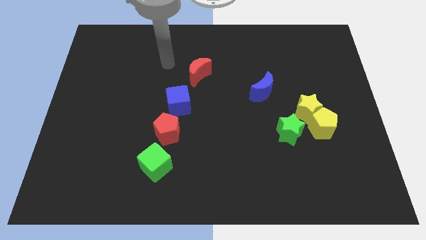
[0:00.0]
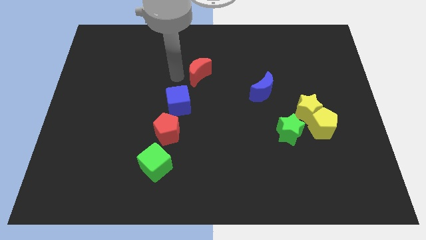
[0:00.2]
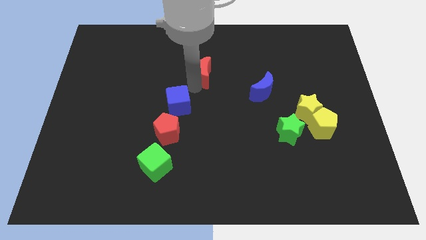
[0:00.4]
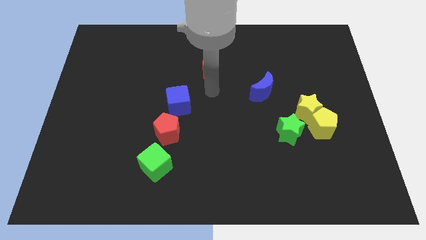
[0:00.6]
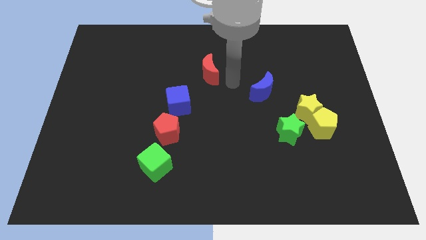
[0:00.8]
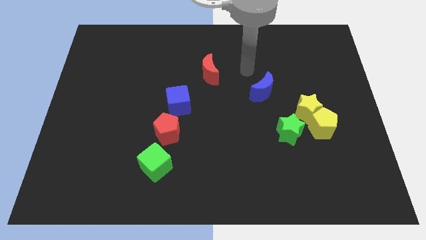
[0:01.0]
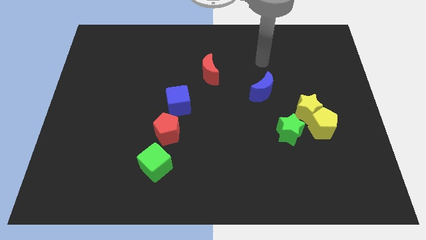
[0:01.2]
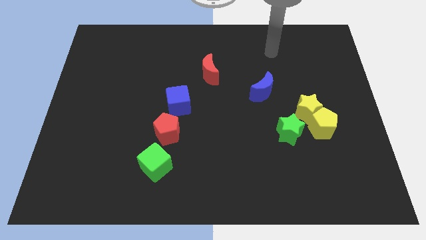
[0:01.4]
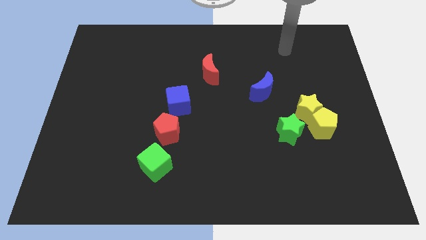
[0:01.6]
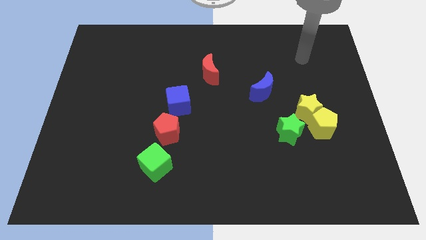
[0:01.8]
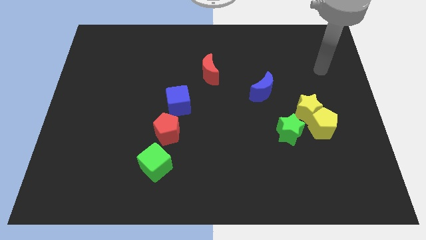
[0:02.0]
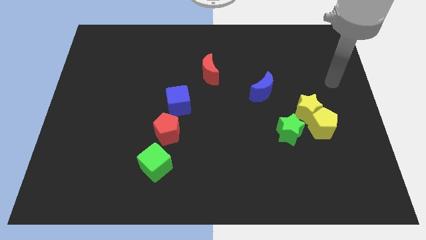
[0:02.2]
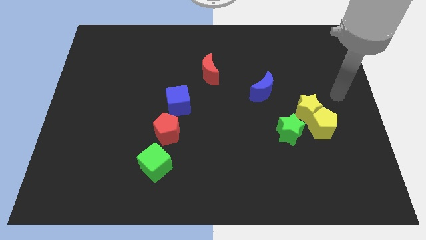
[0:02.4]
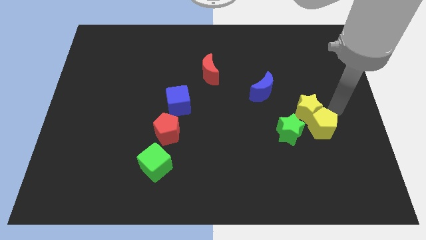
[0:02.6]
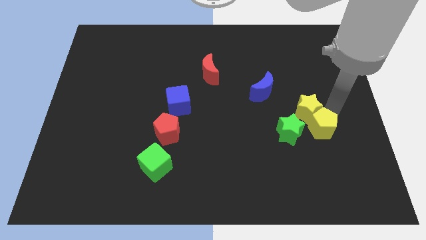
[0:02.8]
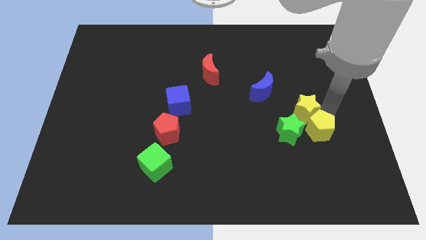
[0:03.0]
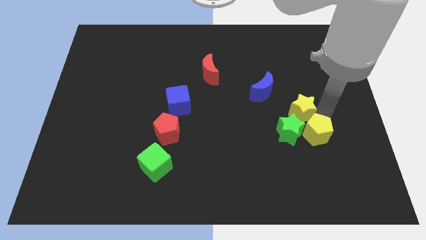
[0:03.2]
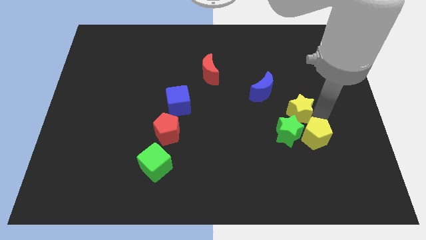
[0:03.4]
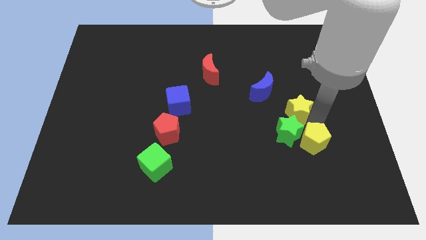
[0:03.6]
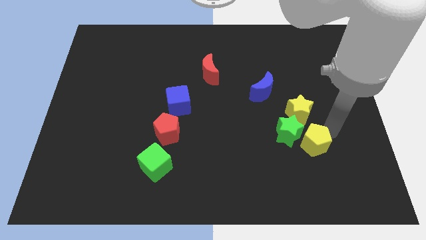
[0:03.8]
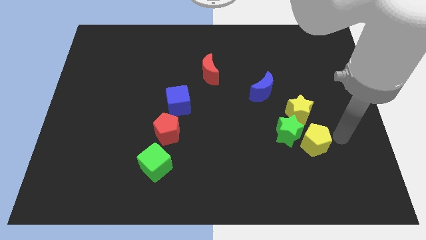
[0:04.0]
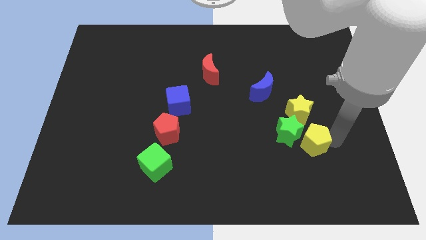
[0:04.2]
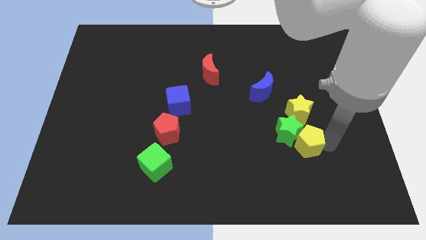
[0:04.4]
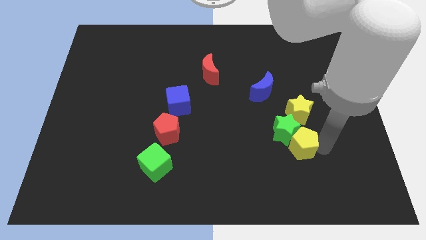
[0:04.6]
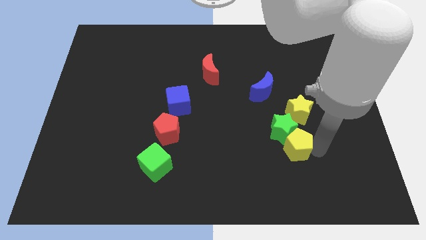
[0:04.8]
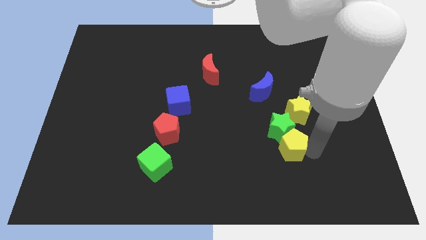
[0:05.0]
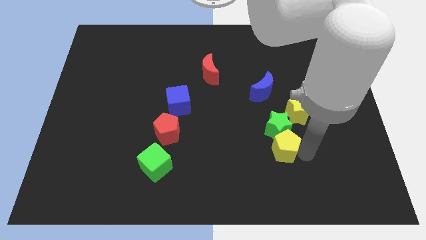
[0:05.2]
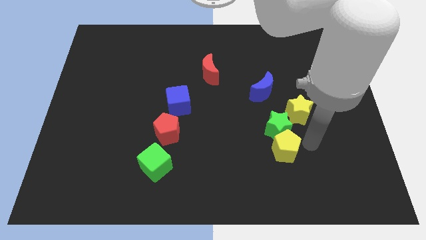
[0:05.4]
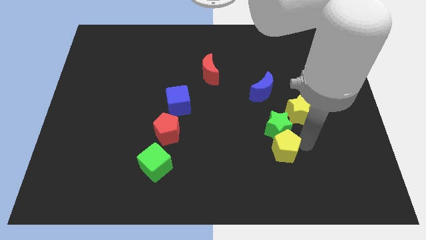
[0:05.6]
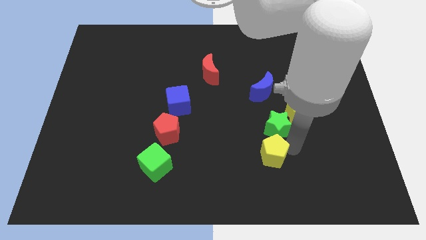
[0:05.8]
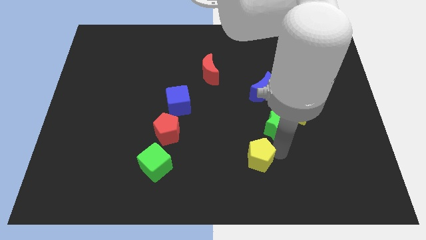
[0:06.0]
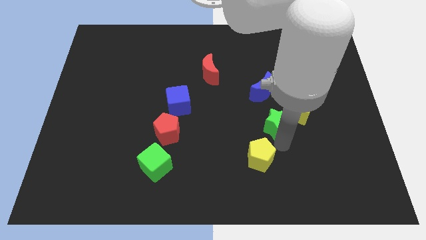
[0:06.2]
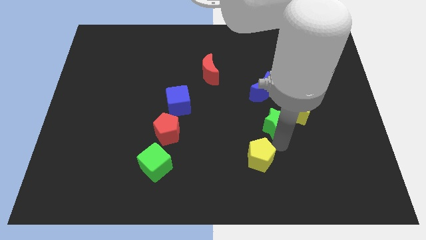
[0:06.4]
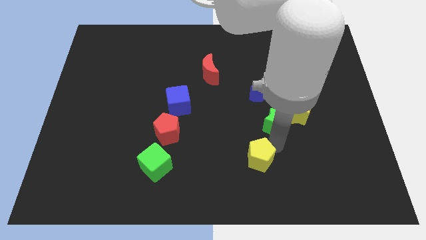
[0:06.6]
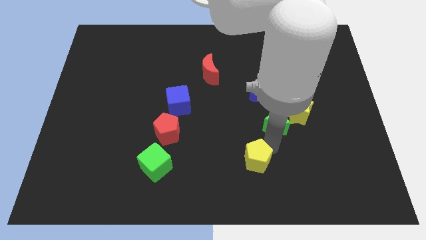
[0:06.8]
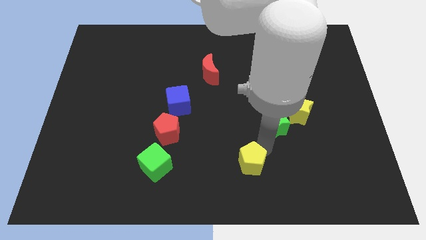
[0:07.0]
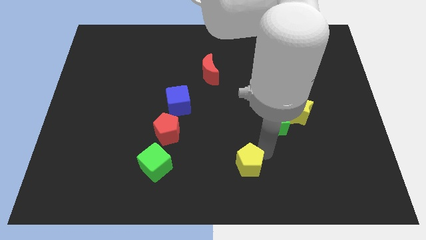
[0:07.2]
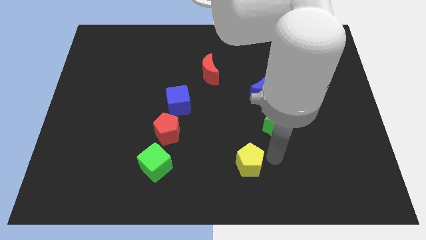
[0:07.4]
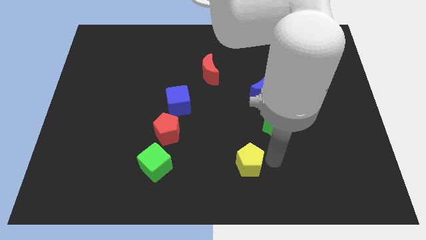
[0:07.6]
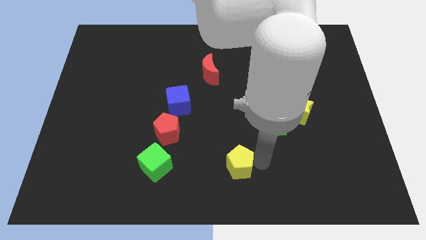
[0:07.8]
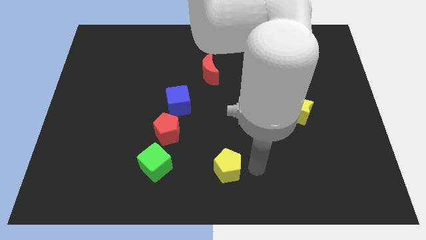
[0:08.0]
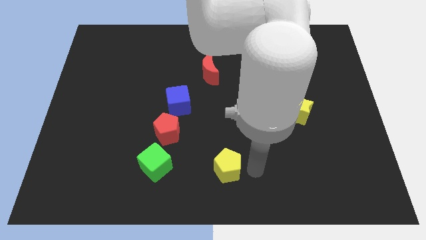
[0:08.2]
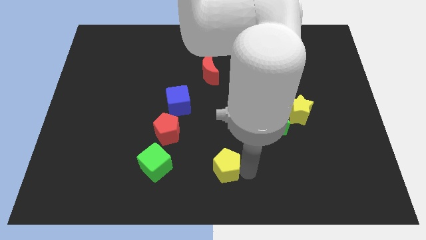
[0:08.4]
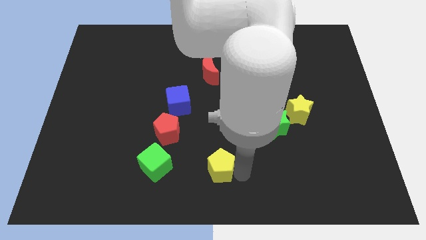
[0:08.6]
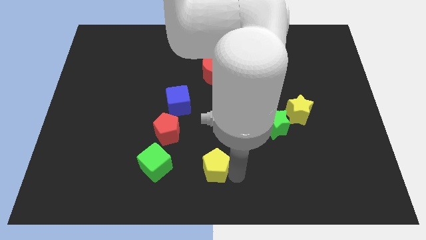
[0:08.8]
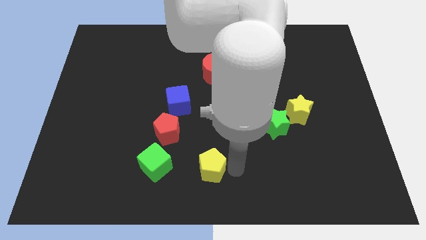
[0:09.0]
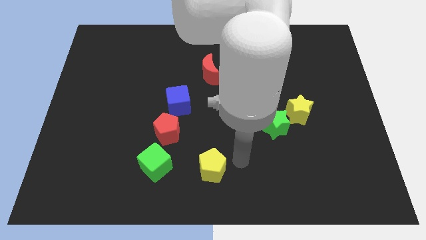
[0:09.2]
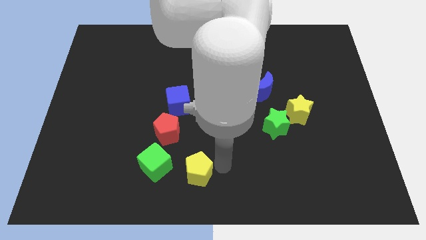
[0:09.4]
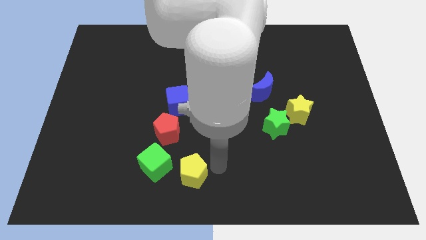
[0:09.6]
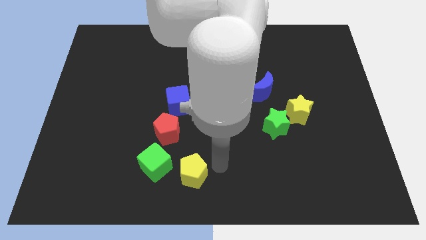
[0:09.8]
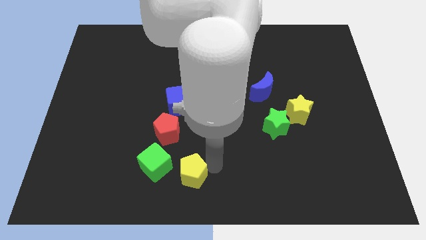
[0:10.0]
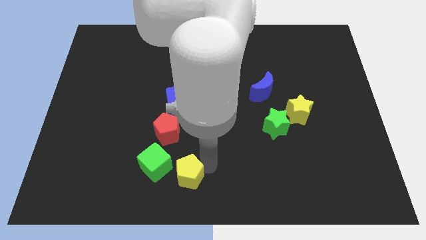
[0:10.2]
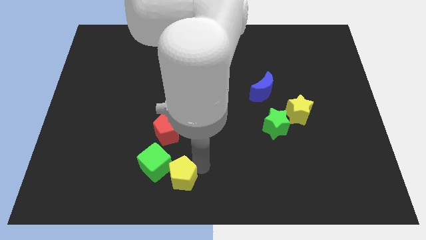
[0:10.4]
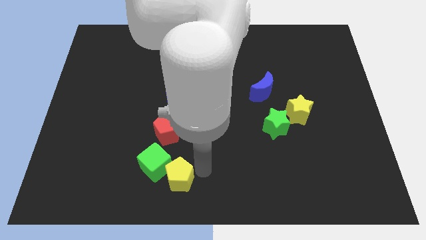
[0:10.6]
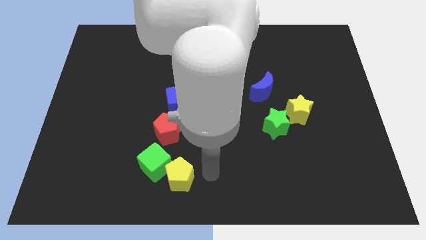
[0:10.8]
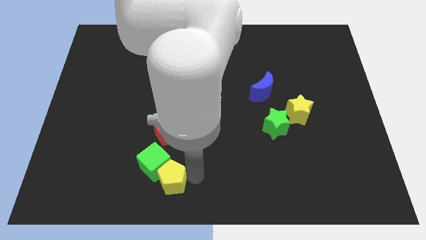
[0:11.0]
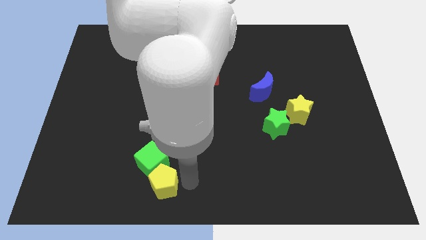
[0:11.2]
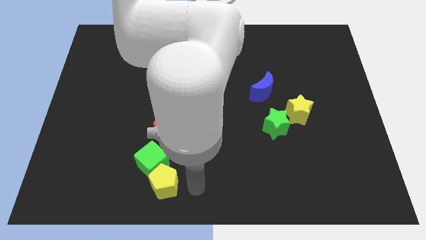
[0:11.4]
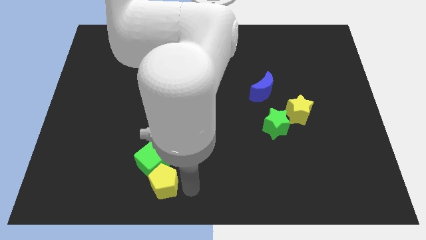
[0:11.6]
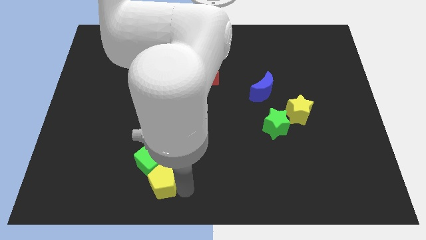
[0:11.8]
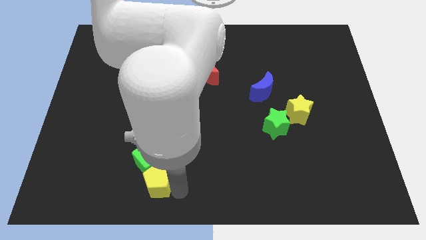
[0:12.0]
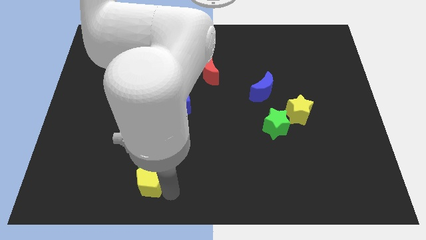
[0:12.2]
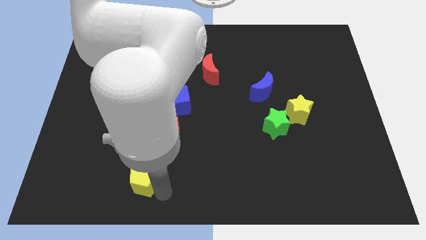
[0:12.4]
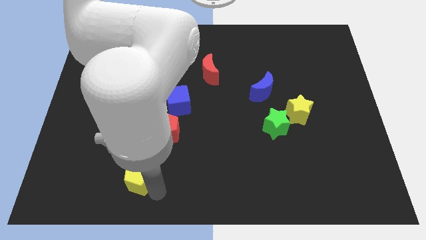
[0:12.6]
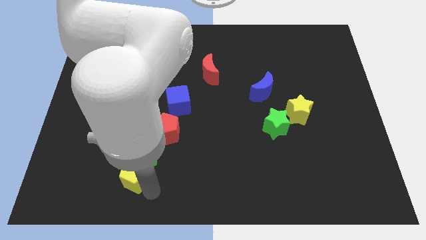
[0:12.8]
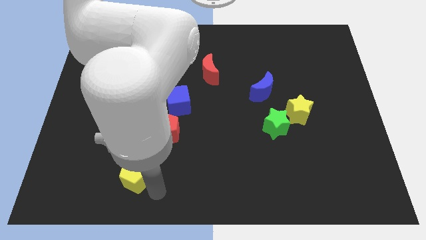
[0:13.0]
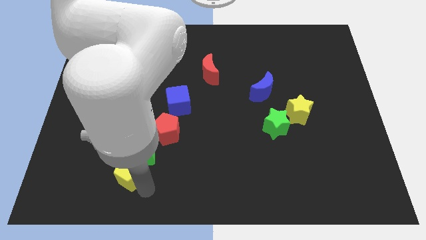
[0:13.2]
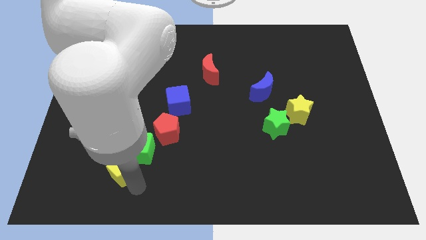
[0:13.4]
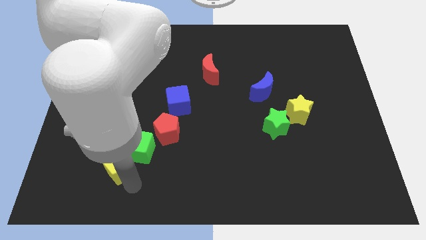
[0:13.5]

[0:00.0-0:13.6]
move the yellow pentagon just left of the green cube

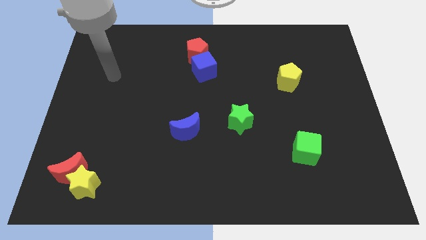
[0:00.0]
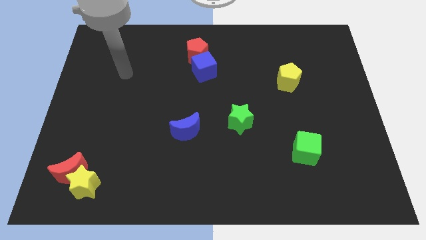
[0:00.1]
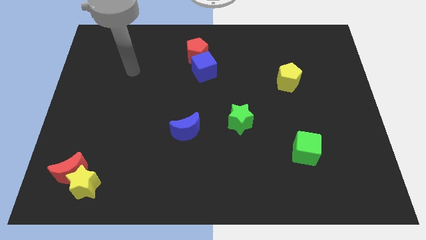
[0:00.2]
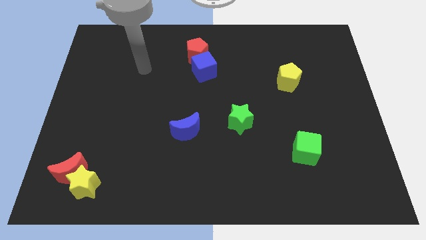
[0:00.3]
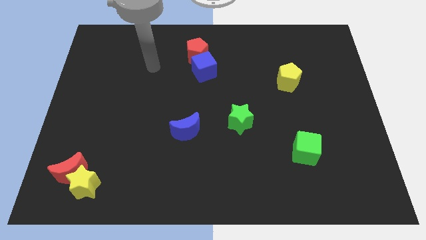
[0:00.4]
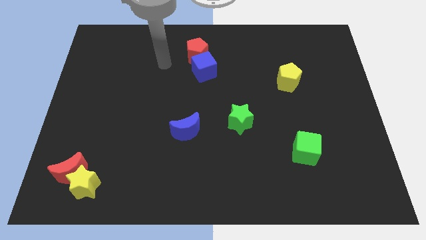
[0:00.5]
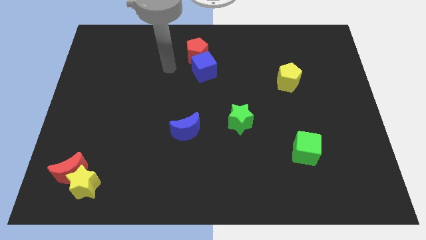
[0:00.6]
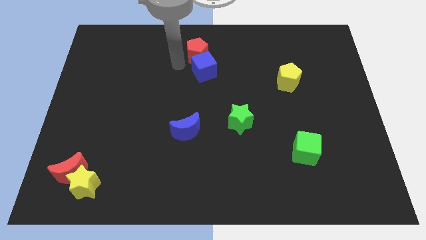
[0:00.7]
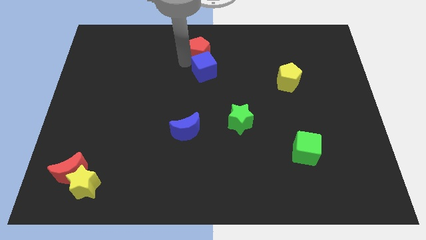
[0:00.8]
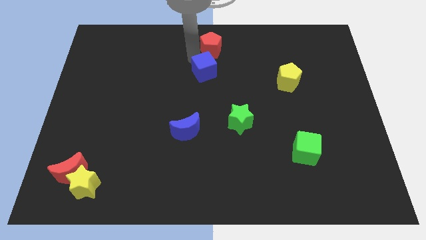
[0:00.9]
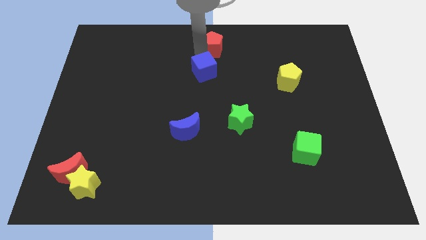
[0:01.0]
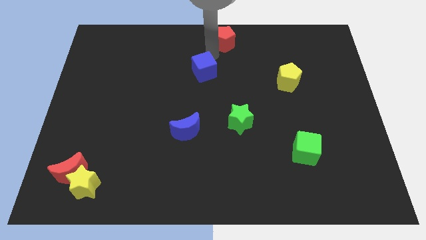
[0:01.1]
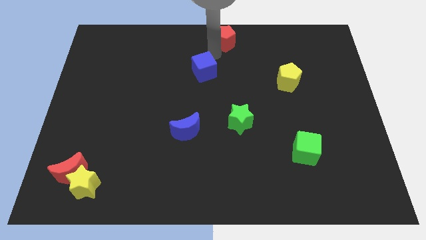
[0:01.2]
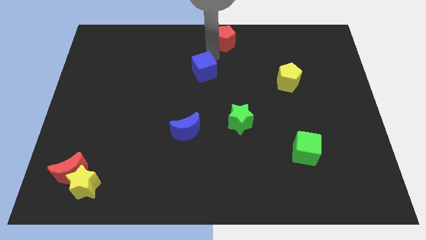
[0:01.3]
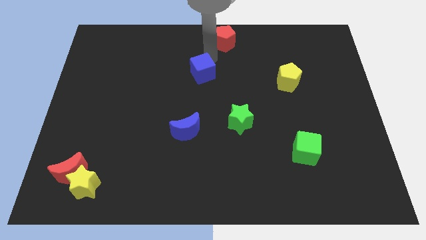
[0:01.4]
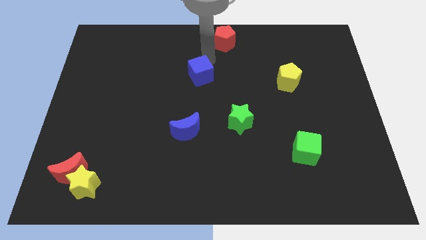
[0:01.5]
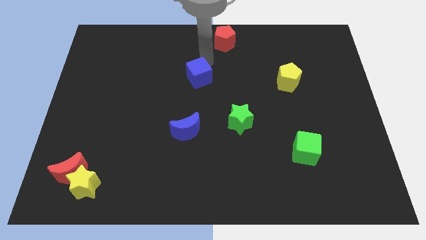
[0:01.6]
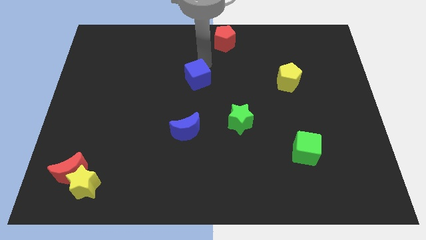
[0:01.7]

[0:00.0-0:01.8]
slide the blue cube to the top side of the blue moon
